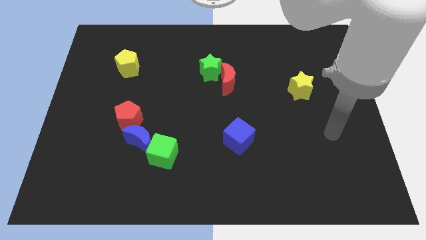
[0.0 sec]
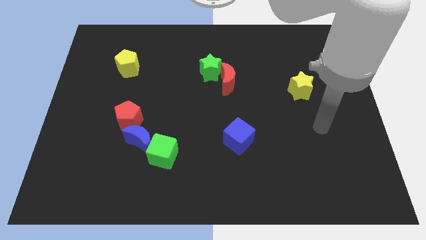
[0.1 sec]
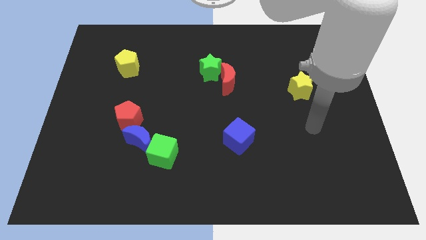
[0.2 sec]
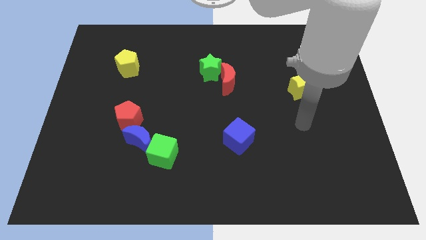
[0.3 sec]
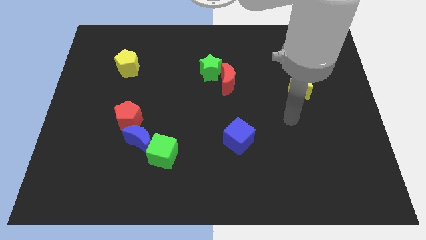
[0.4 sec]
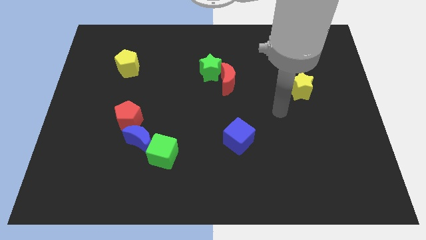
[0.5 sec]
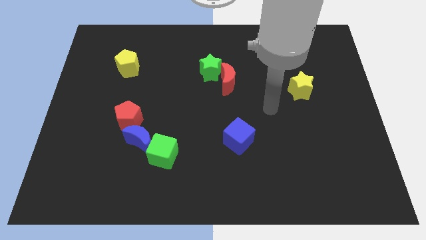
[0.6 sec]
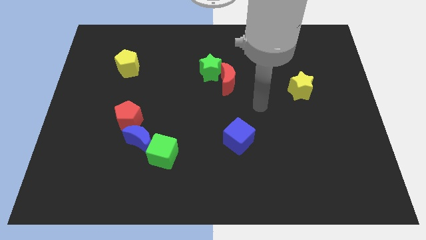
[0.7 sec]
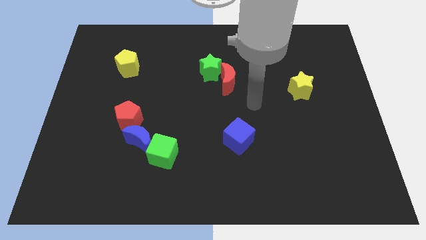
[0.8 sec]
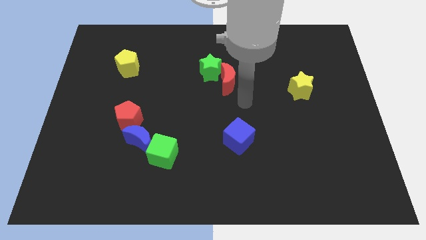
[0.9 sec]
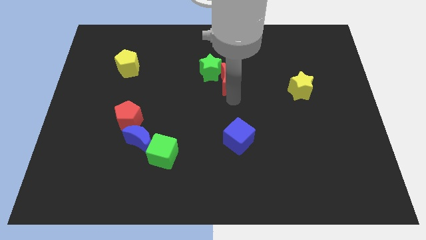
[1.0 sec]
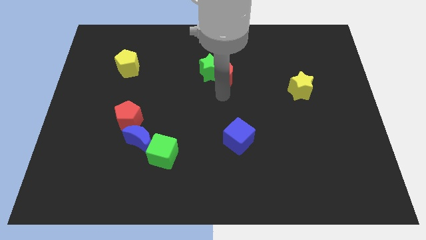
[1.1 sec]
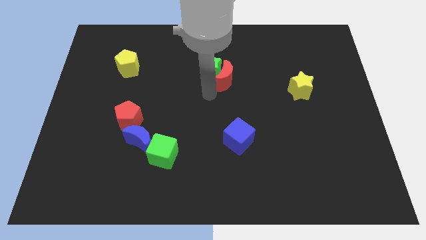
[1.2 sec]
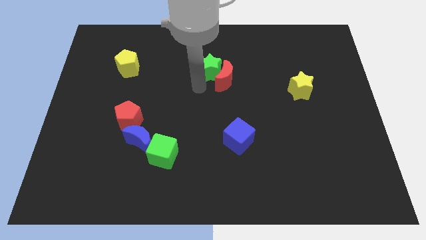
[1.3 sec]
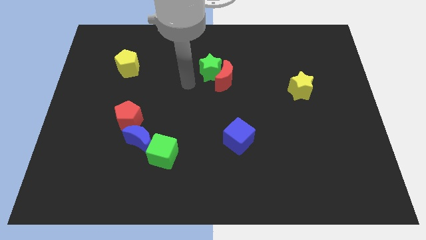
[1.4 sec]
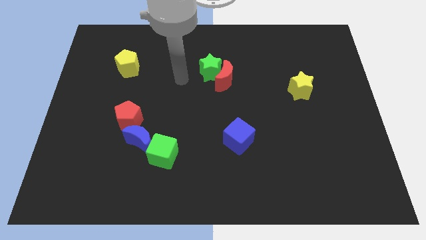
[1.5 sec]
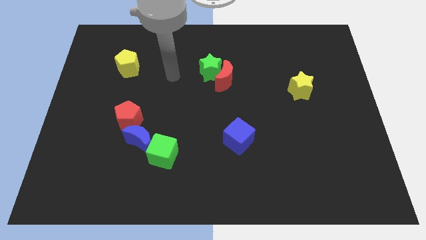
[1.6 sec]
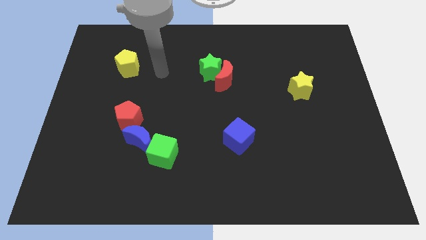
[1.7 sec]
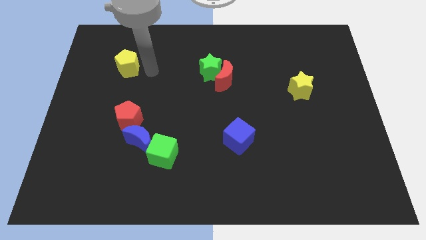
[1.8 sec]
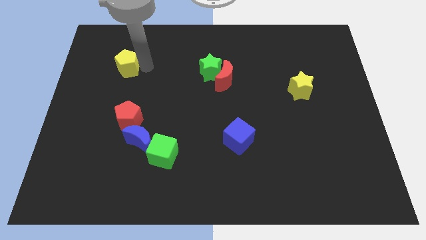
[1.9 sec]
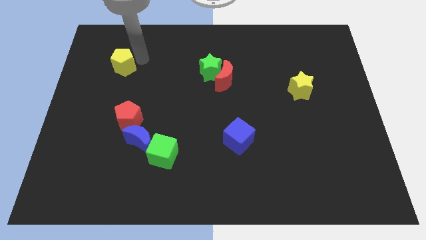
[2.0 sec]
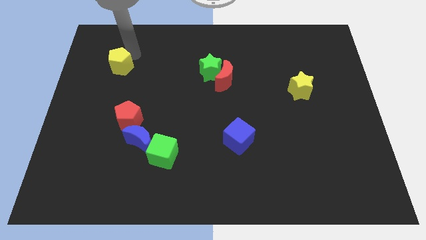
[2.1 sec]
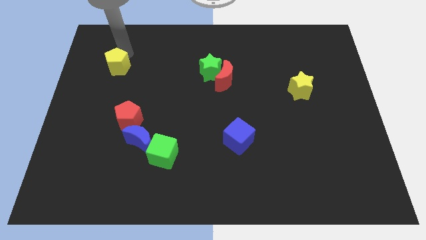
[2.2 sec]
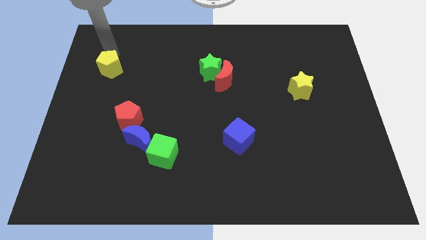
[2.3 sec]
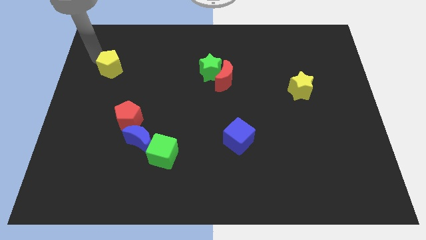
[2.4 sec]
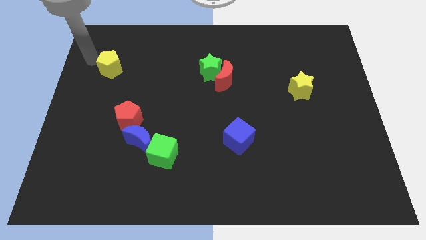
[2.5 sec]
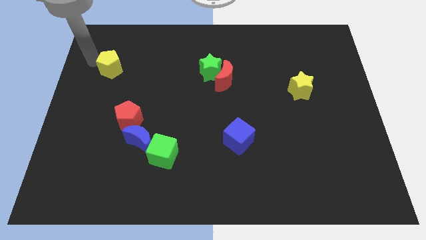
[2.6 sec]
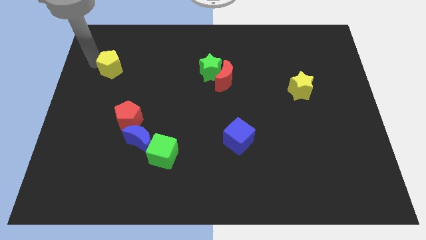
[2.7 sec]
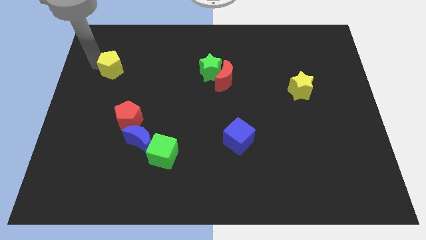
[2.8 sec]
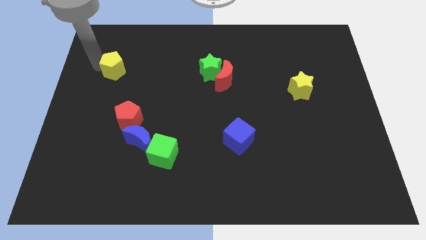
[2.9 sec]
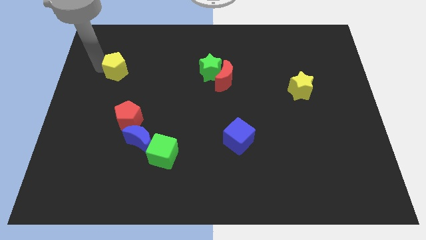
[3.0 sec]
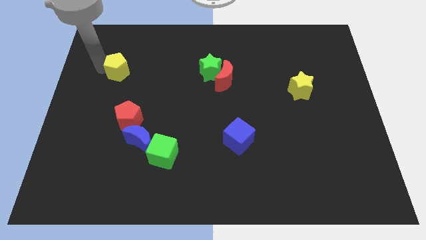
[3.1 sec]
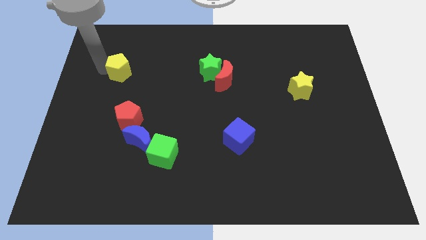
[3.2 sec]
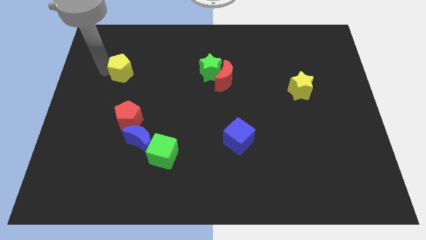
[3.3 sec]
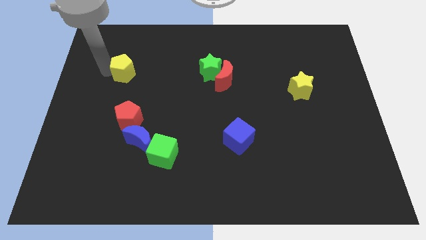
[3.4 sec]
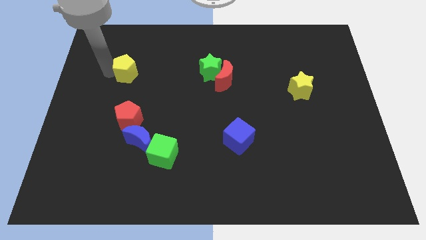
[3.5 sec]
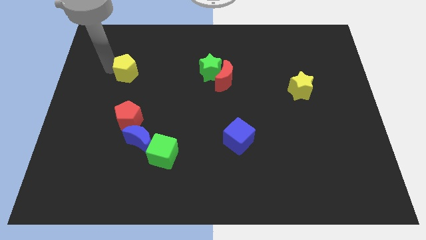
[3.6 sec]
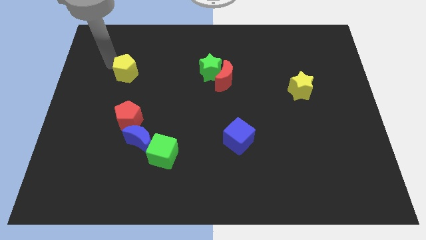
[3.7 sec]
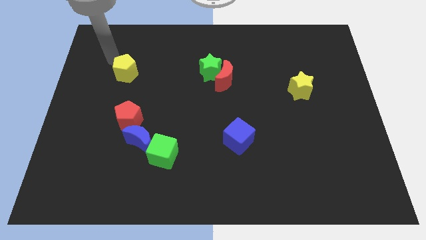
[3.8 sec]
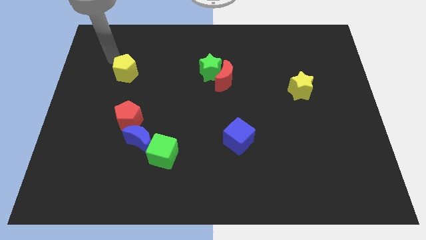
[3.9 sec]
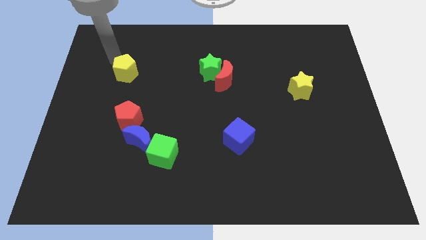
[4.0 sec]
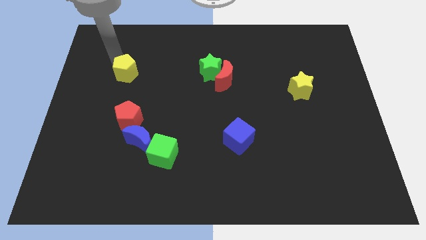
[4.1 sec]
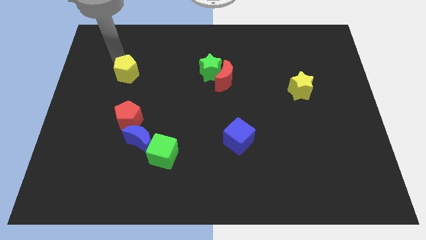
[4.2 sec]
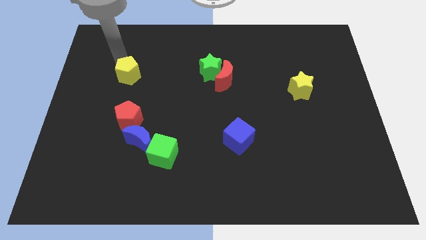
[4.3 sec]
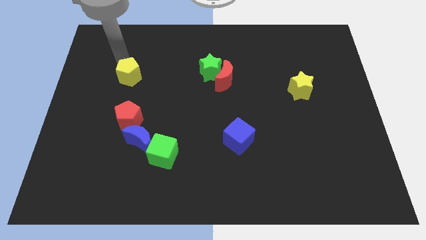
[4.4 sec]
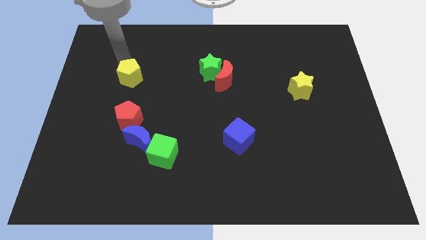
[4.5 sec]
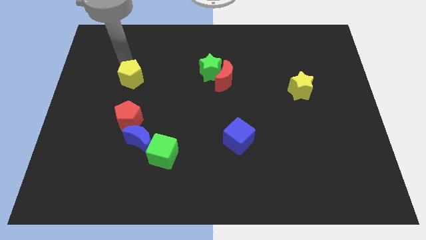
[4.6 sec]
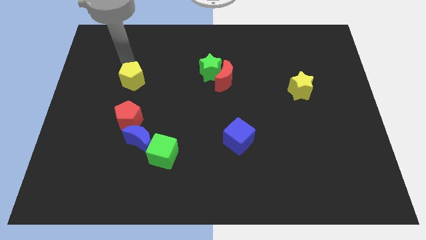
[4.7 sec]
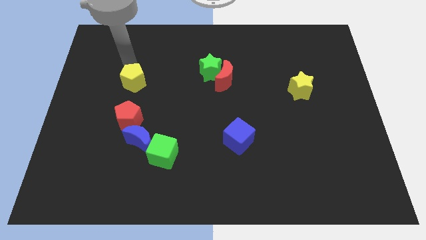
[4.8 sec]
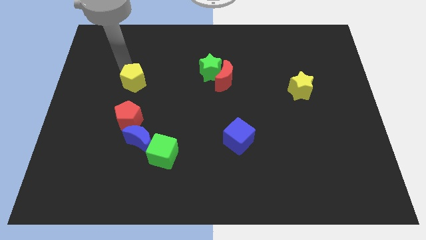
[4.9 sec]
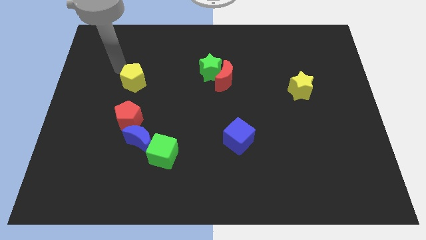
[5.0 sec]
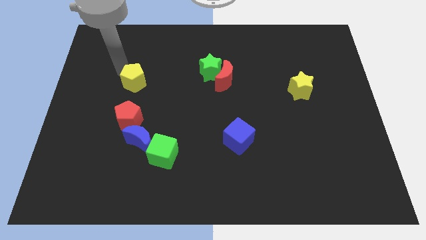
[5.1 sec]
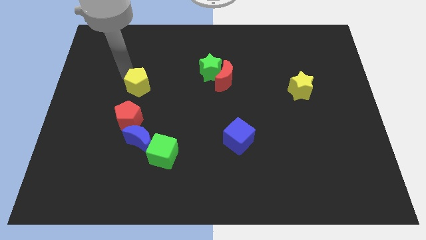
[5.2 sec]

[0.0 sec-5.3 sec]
slide the yellow pentagon a bit diagonally downwards and to the right

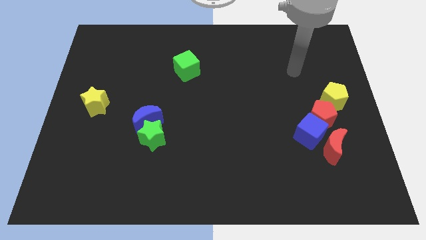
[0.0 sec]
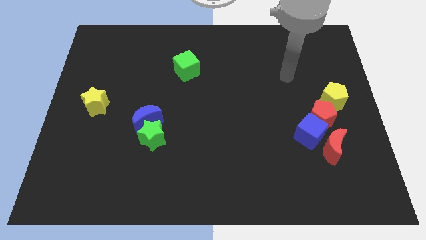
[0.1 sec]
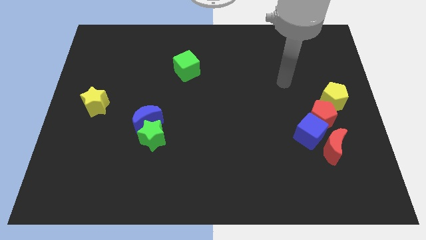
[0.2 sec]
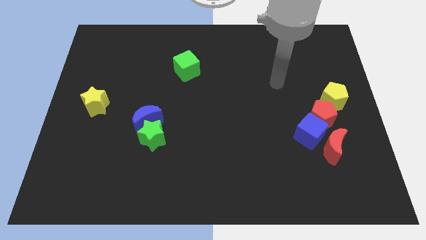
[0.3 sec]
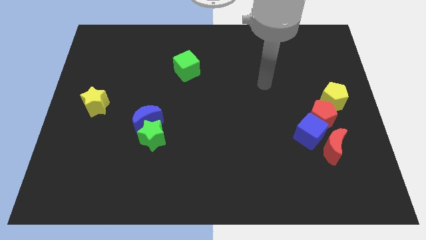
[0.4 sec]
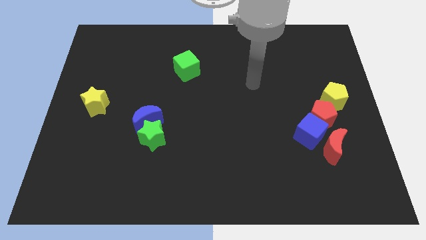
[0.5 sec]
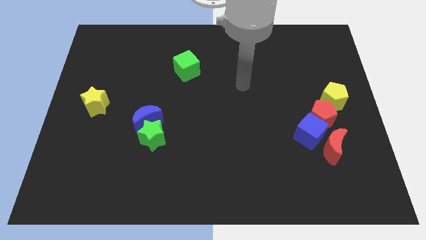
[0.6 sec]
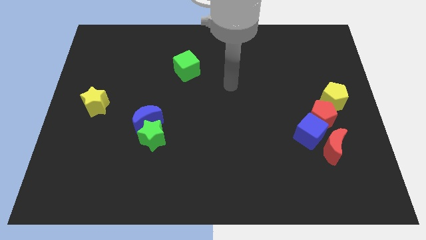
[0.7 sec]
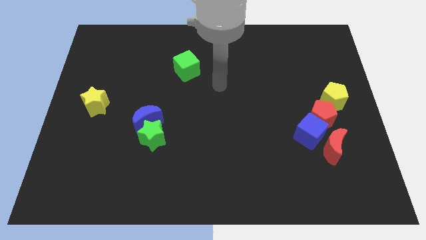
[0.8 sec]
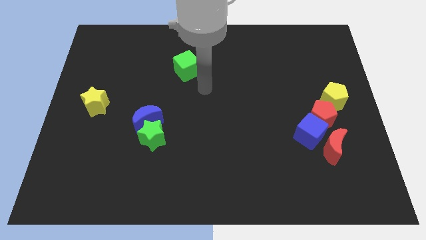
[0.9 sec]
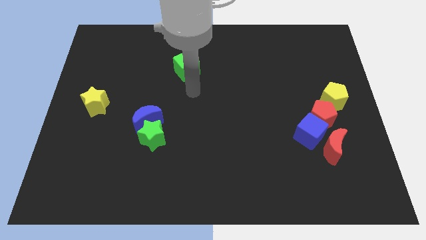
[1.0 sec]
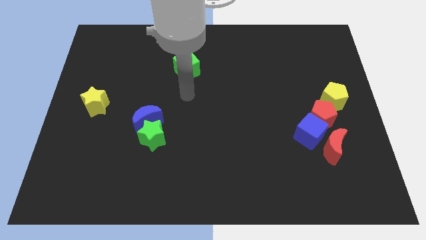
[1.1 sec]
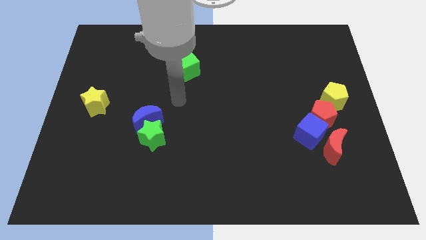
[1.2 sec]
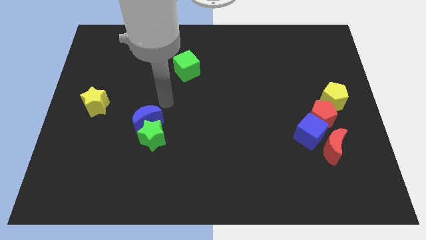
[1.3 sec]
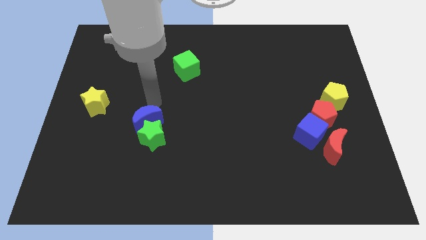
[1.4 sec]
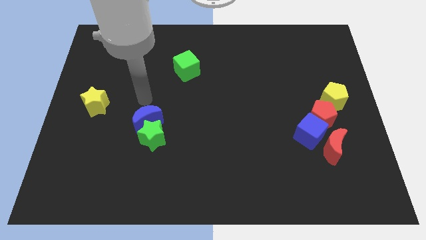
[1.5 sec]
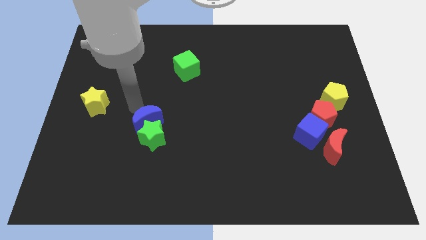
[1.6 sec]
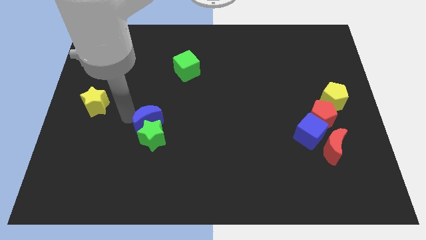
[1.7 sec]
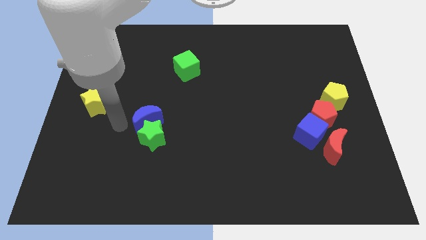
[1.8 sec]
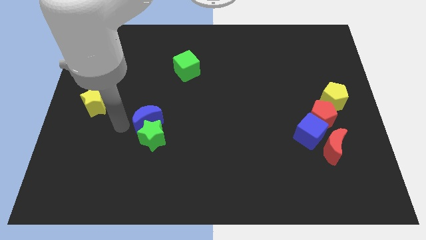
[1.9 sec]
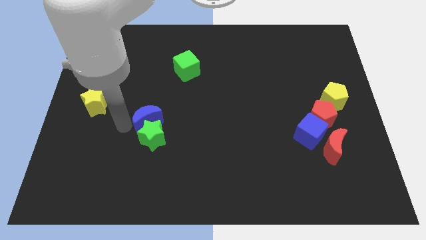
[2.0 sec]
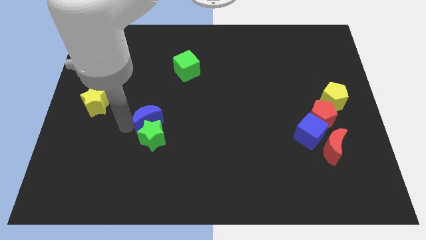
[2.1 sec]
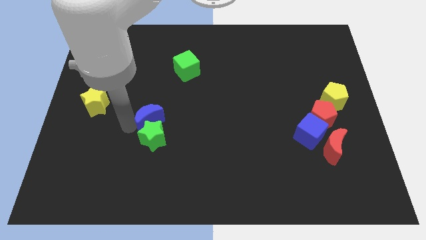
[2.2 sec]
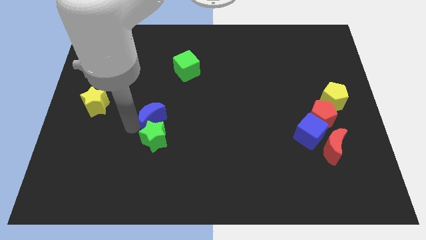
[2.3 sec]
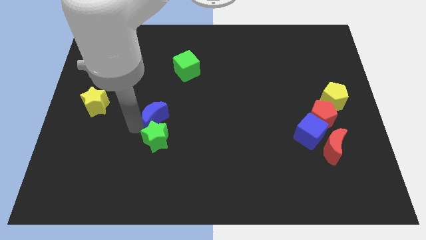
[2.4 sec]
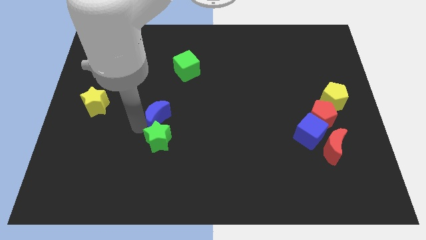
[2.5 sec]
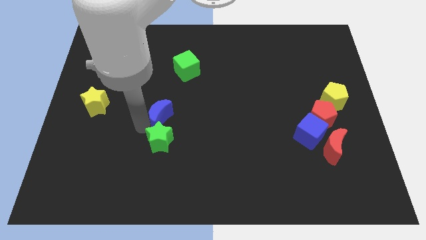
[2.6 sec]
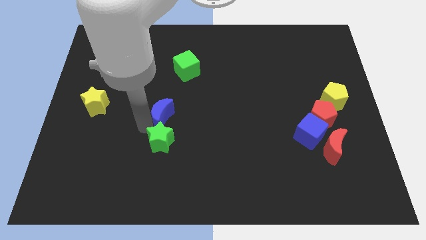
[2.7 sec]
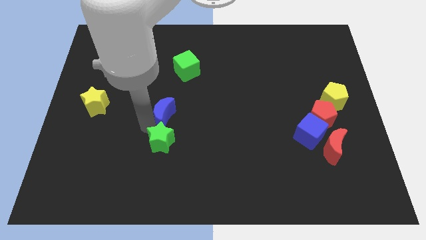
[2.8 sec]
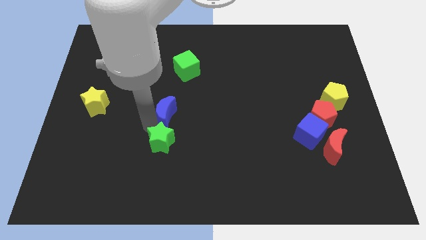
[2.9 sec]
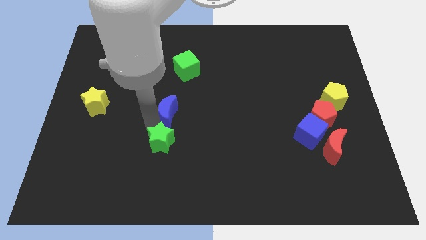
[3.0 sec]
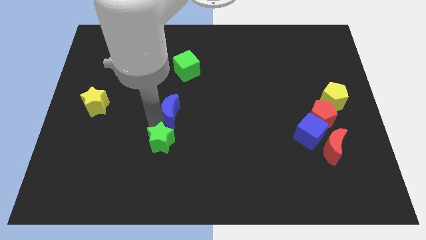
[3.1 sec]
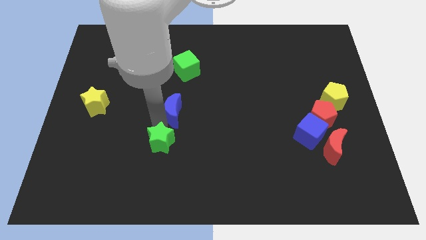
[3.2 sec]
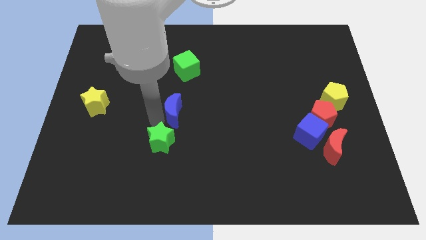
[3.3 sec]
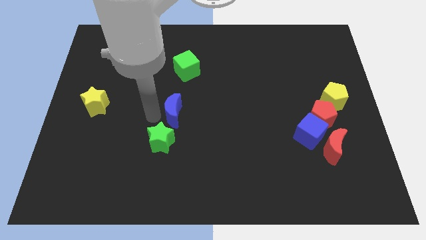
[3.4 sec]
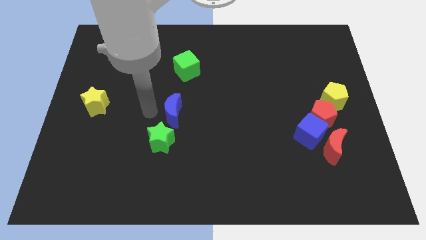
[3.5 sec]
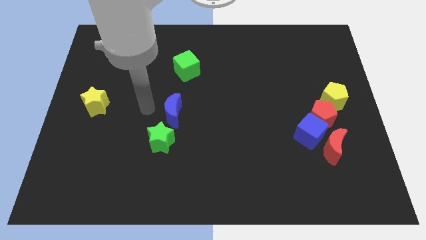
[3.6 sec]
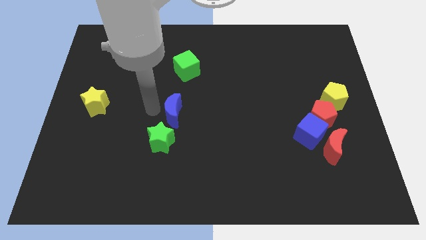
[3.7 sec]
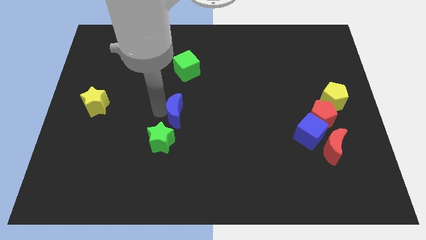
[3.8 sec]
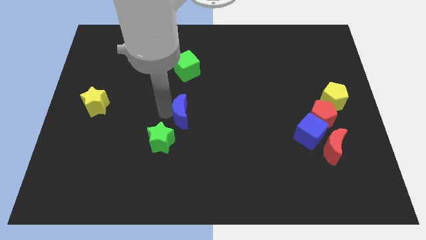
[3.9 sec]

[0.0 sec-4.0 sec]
move the blue moon right slightly
